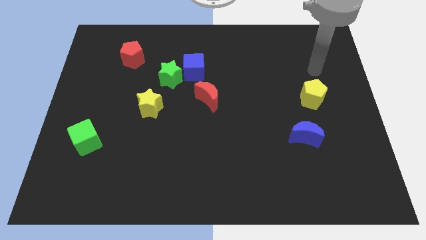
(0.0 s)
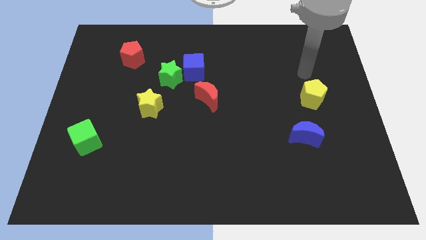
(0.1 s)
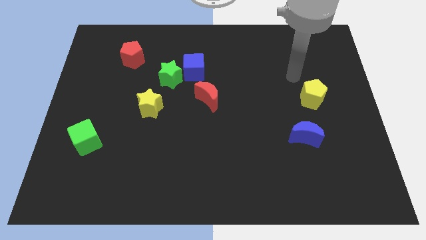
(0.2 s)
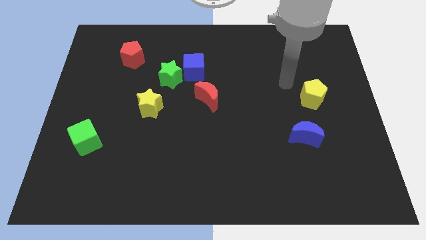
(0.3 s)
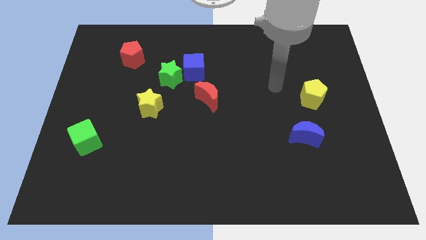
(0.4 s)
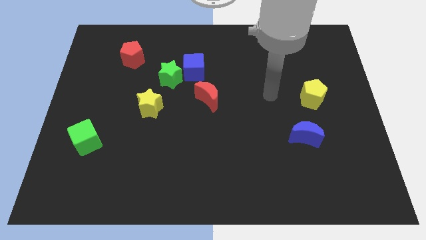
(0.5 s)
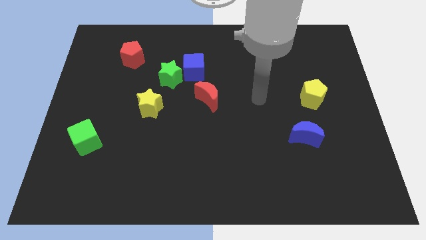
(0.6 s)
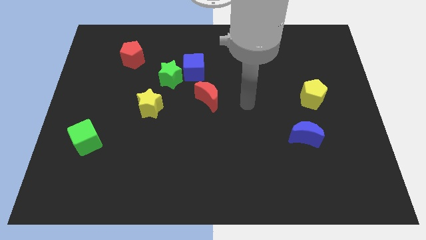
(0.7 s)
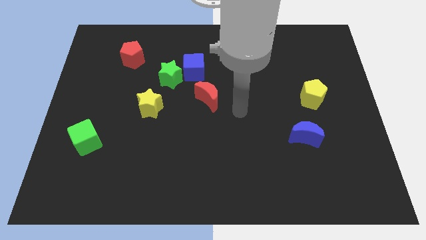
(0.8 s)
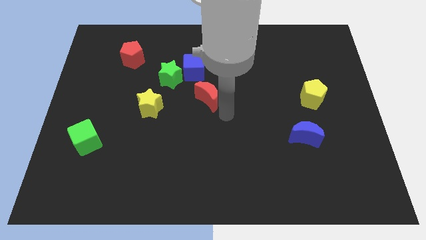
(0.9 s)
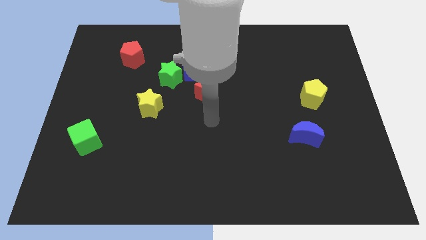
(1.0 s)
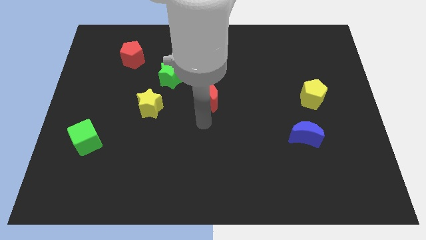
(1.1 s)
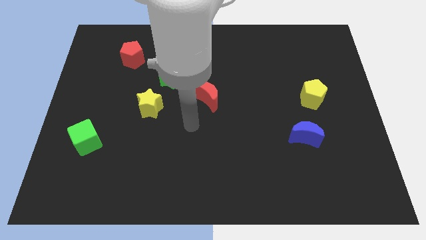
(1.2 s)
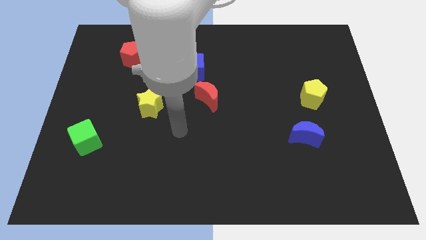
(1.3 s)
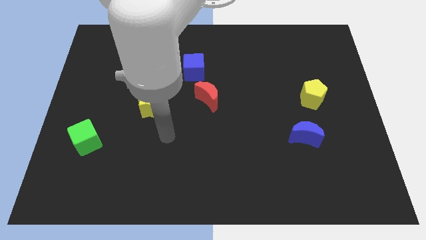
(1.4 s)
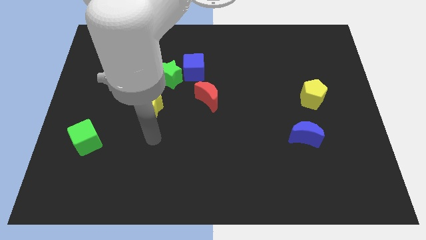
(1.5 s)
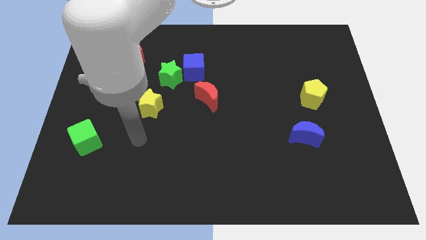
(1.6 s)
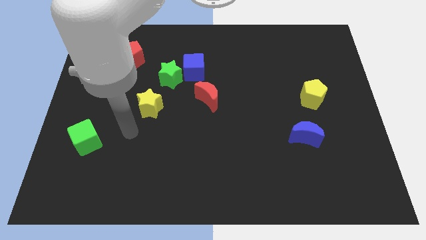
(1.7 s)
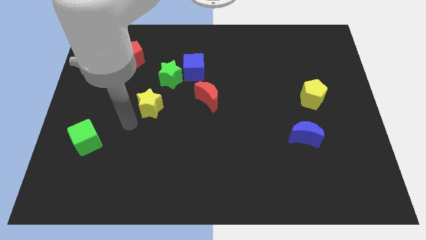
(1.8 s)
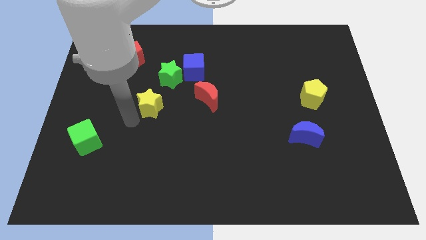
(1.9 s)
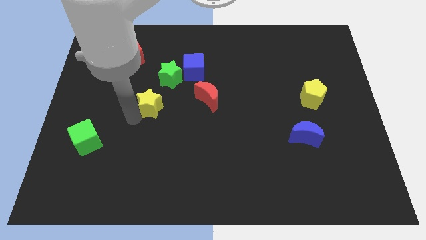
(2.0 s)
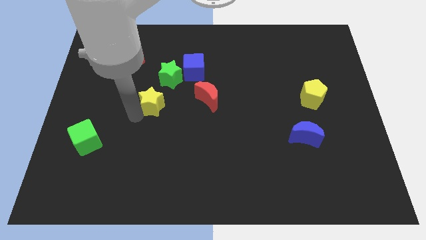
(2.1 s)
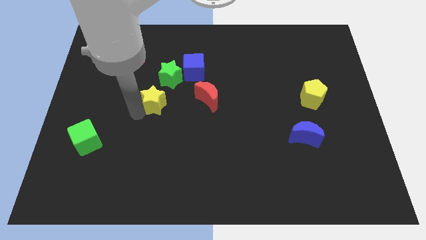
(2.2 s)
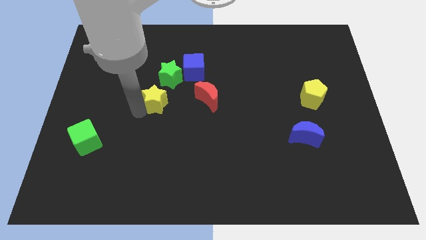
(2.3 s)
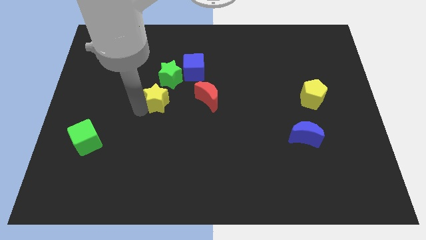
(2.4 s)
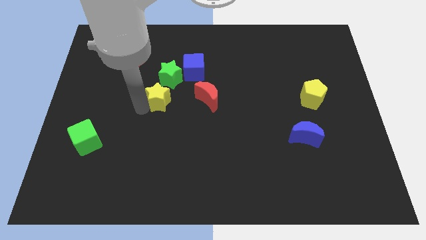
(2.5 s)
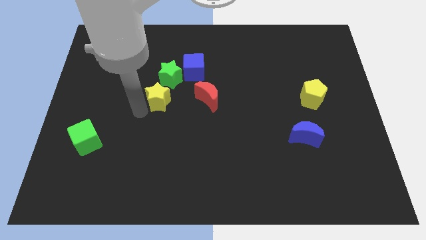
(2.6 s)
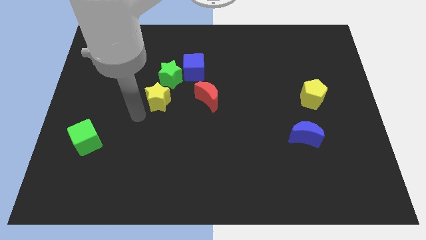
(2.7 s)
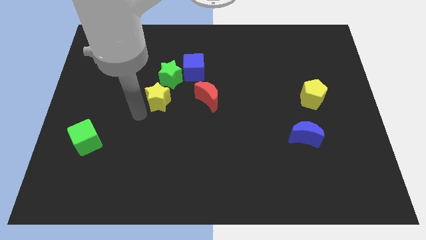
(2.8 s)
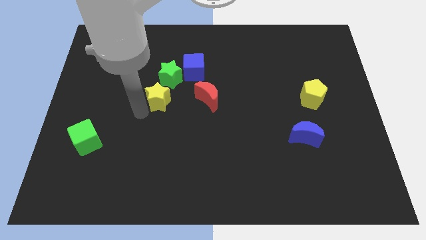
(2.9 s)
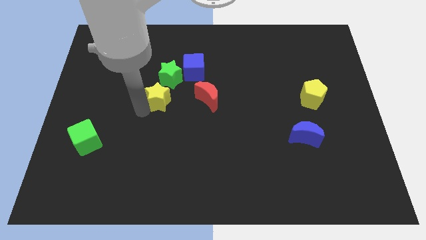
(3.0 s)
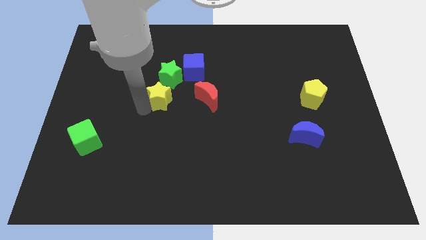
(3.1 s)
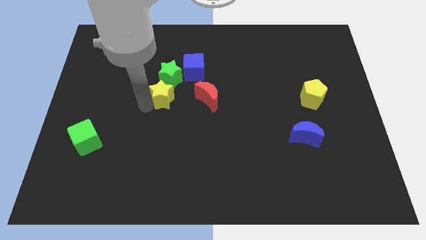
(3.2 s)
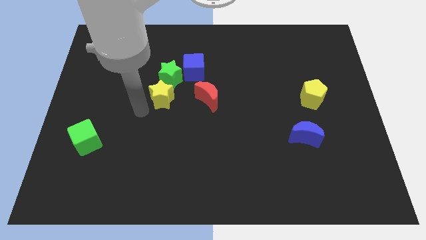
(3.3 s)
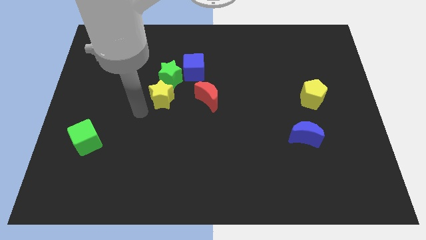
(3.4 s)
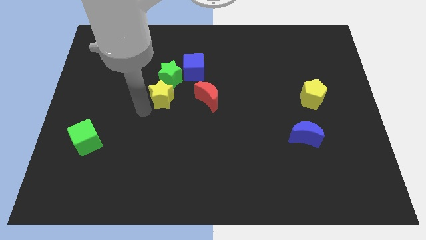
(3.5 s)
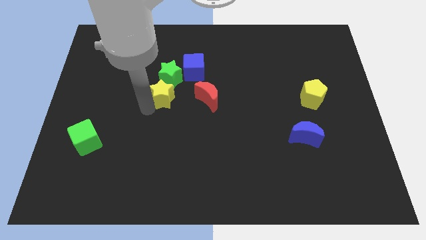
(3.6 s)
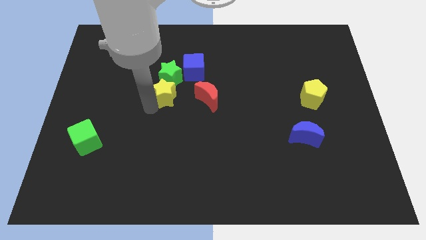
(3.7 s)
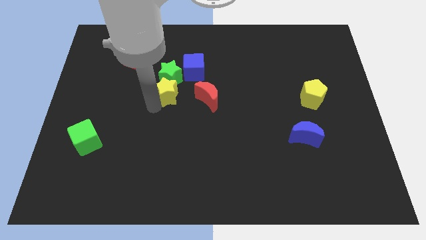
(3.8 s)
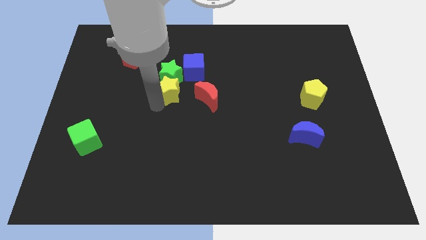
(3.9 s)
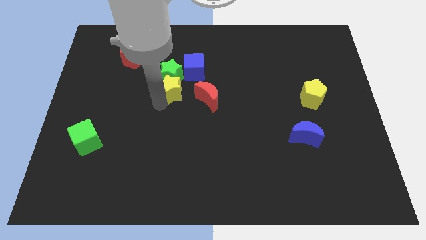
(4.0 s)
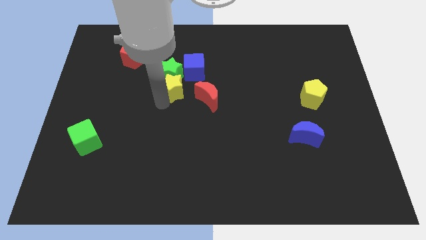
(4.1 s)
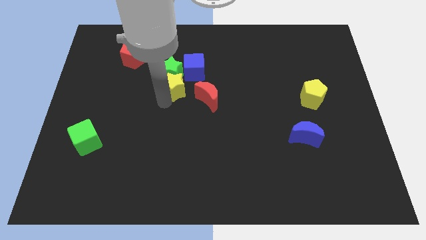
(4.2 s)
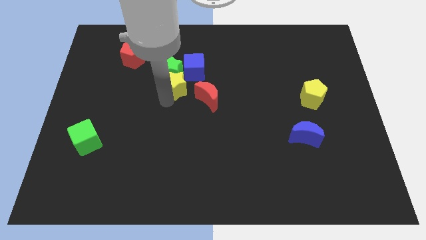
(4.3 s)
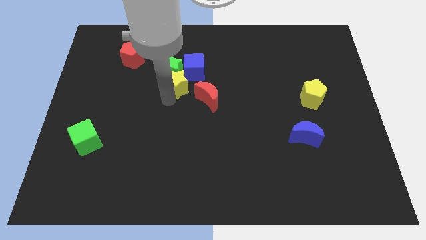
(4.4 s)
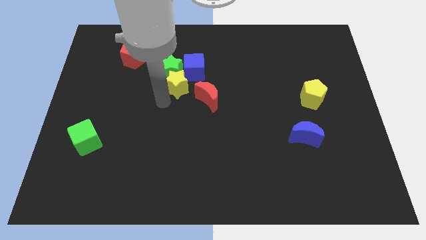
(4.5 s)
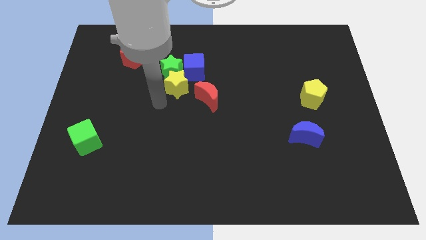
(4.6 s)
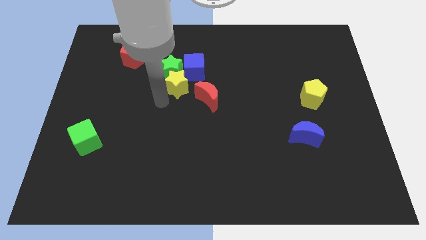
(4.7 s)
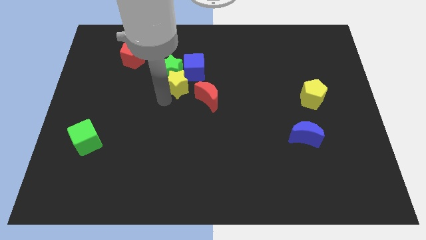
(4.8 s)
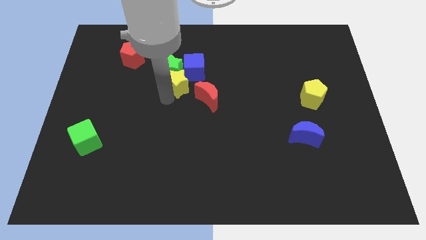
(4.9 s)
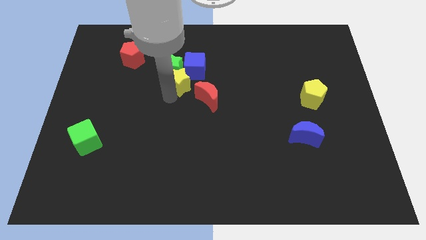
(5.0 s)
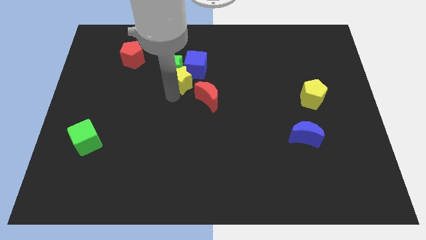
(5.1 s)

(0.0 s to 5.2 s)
put the yellow star towards the blue cube

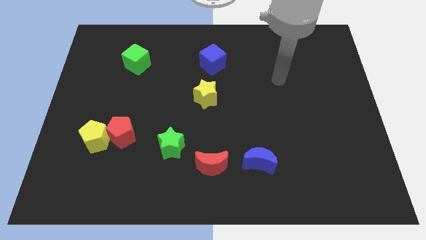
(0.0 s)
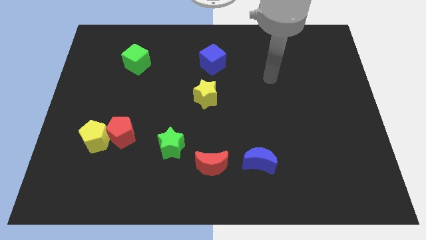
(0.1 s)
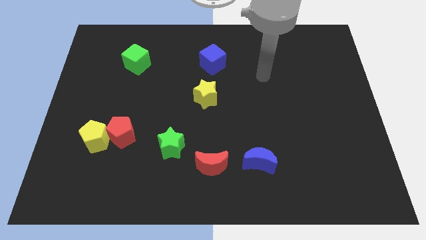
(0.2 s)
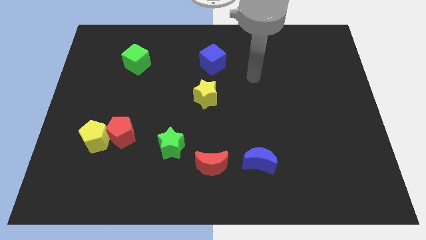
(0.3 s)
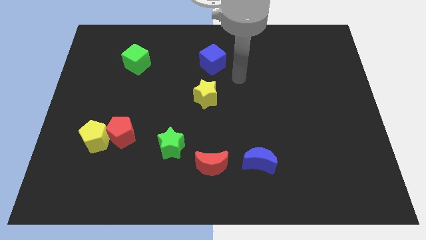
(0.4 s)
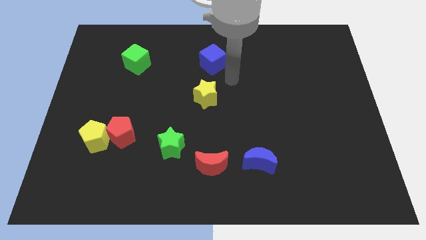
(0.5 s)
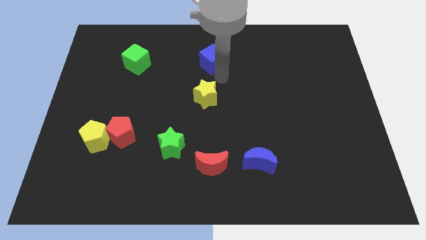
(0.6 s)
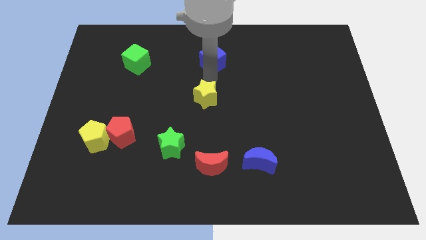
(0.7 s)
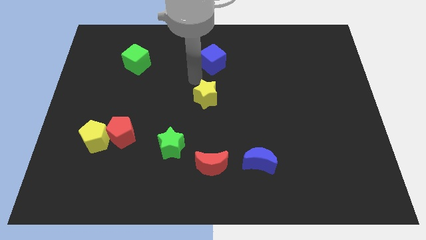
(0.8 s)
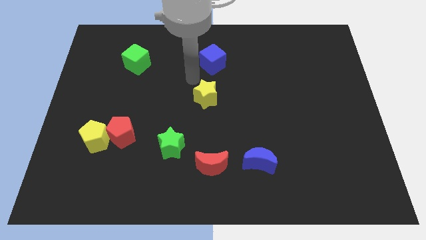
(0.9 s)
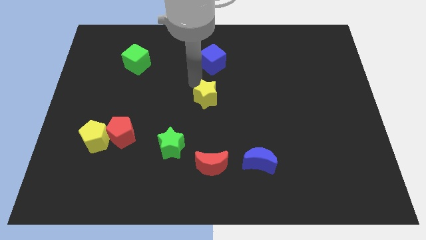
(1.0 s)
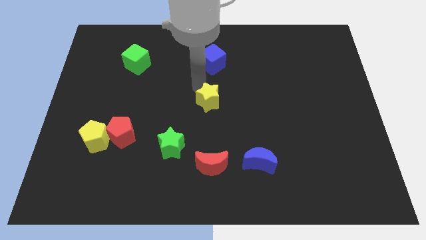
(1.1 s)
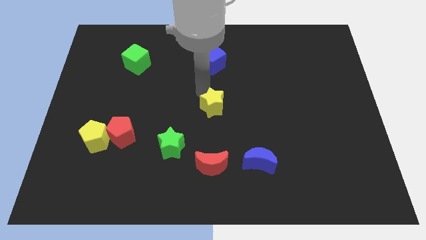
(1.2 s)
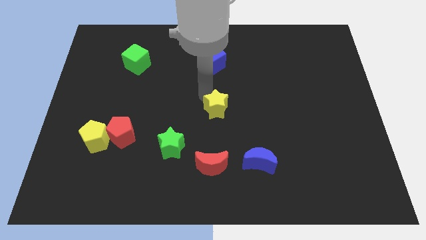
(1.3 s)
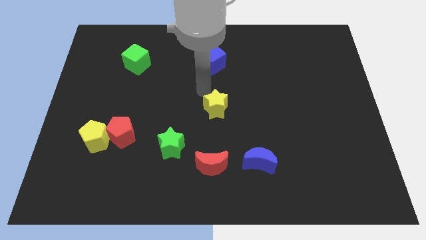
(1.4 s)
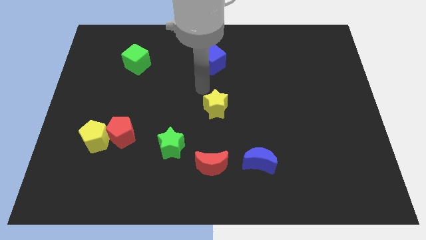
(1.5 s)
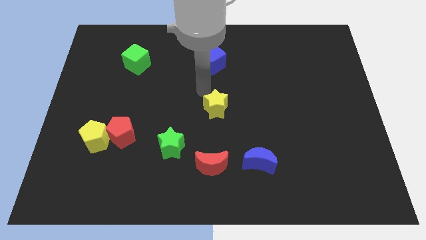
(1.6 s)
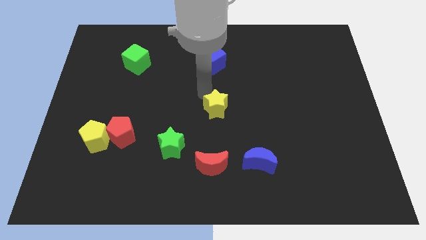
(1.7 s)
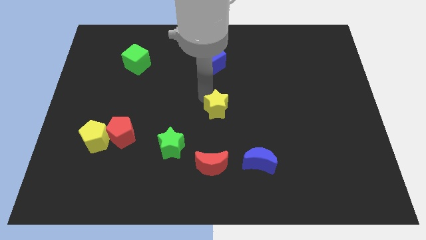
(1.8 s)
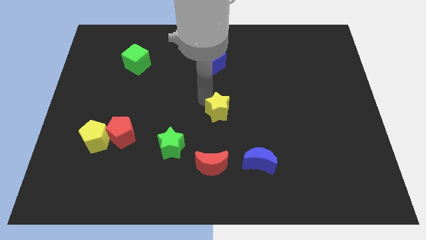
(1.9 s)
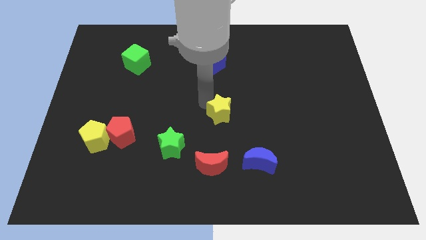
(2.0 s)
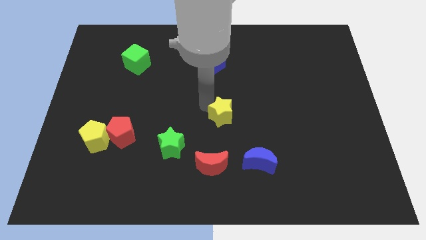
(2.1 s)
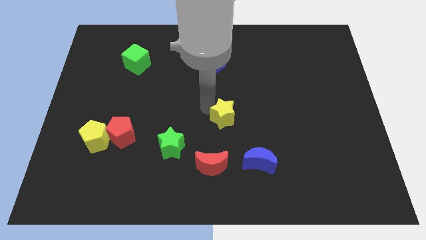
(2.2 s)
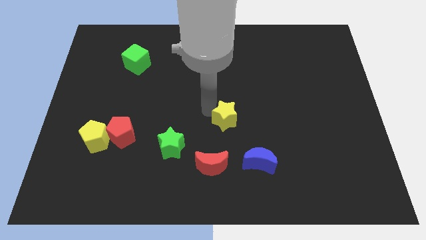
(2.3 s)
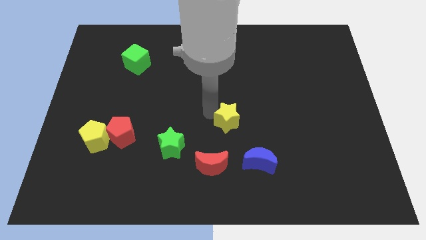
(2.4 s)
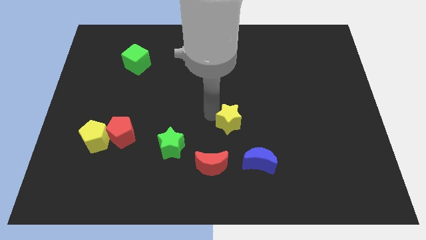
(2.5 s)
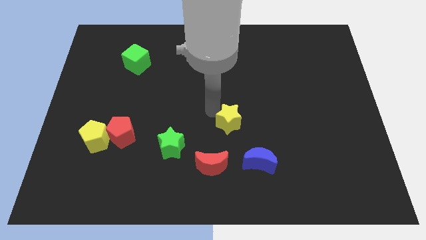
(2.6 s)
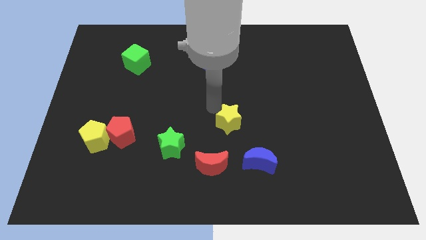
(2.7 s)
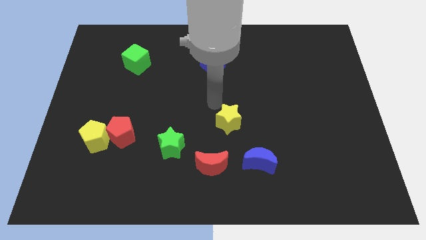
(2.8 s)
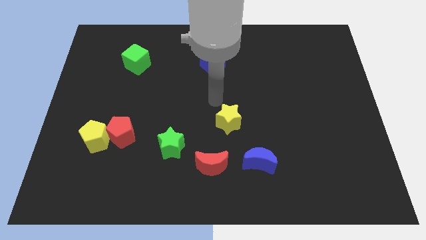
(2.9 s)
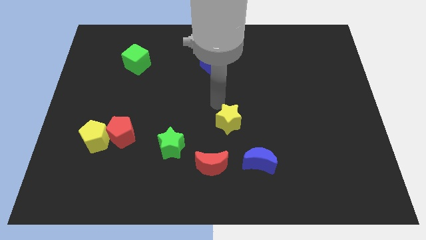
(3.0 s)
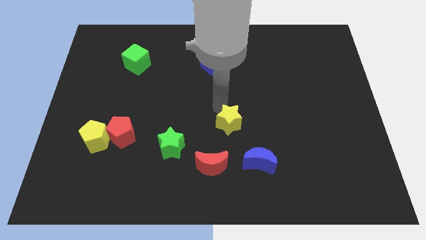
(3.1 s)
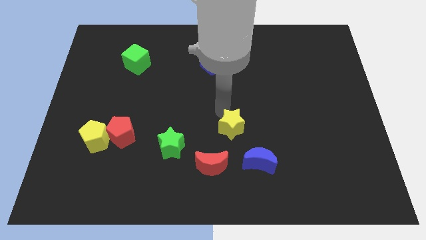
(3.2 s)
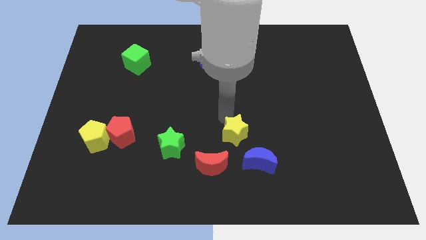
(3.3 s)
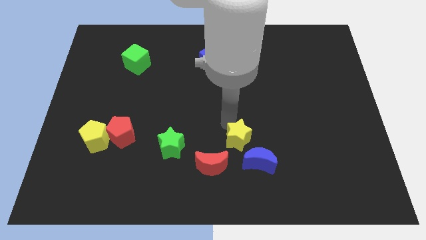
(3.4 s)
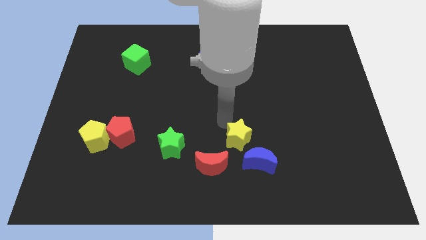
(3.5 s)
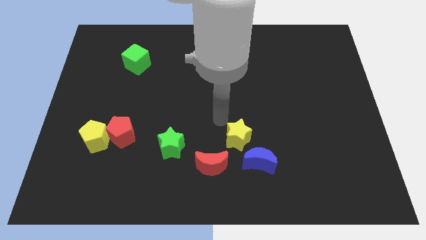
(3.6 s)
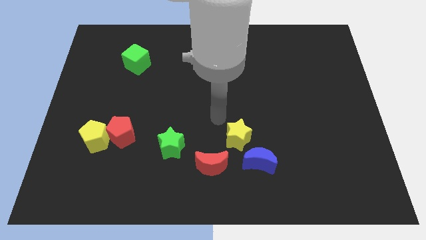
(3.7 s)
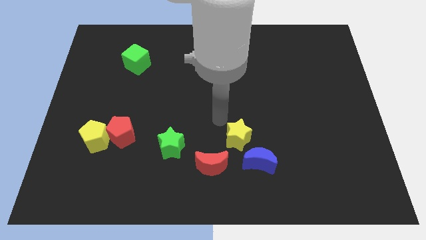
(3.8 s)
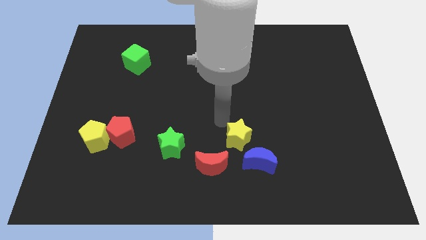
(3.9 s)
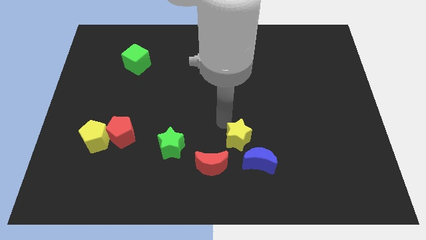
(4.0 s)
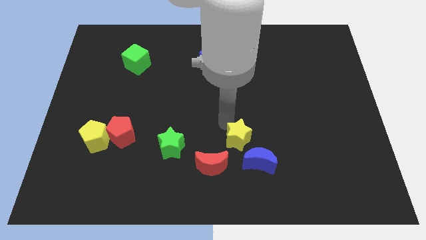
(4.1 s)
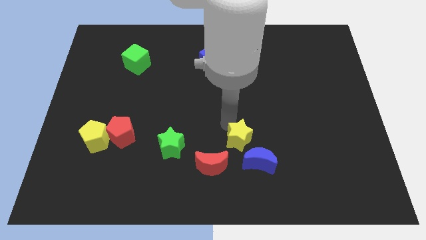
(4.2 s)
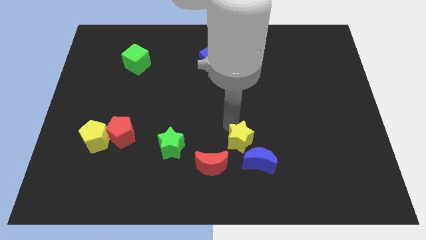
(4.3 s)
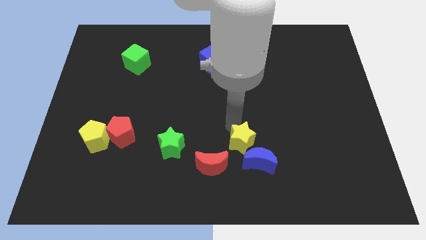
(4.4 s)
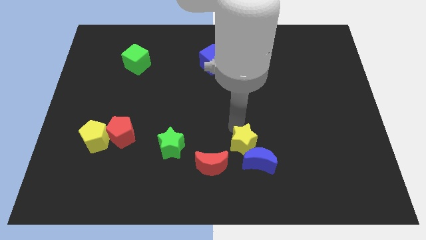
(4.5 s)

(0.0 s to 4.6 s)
push the yellow star next to the blue moon
